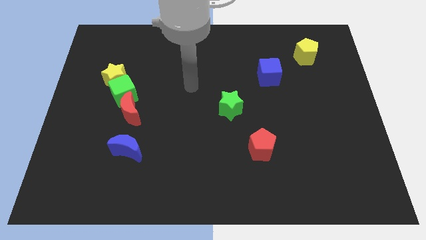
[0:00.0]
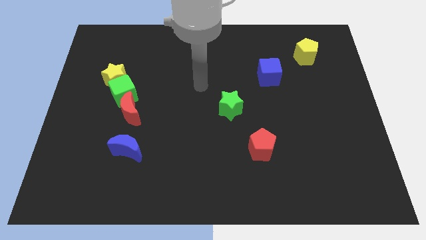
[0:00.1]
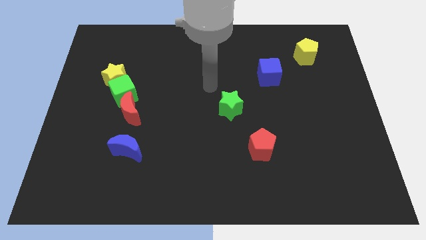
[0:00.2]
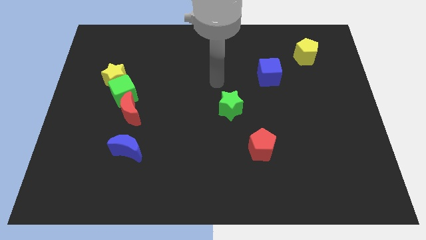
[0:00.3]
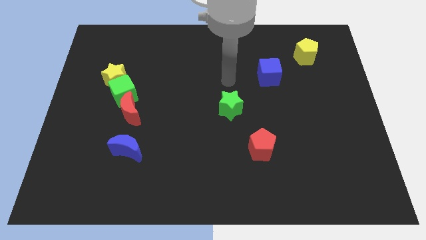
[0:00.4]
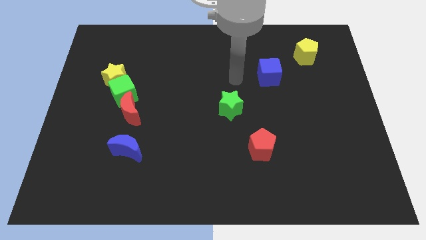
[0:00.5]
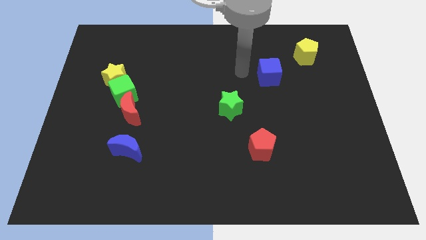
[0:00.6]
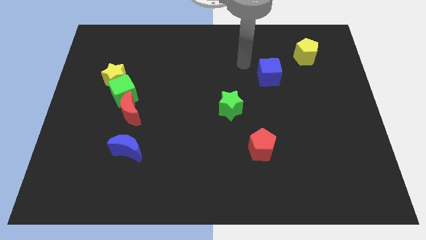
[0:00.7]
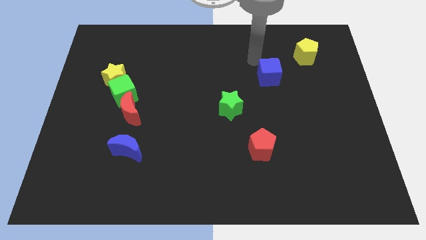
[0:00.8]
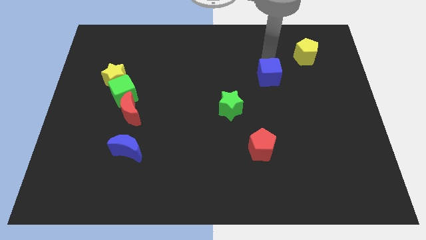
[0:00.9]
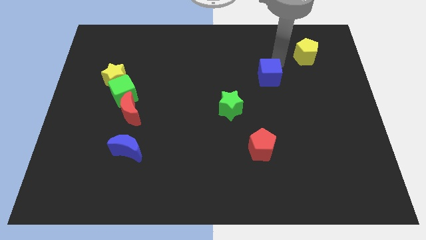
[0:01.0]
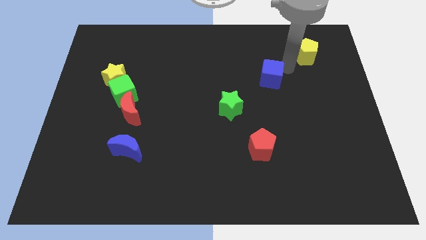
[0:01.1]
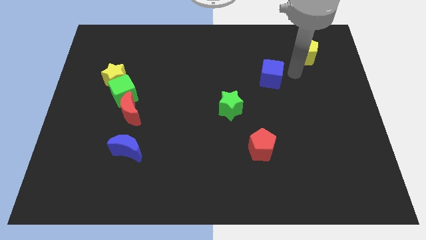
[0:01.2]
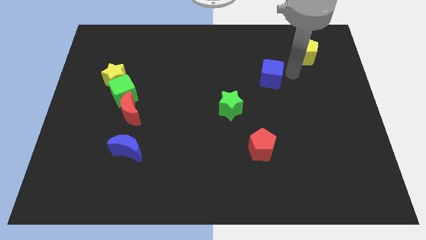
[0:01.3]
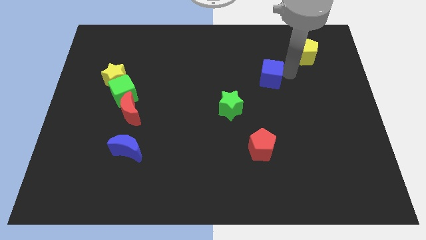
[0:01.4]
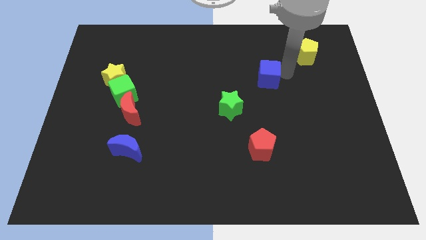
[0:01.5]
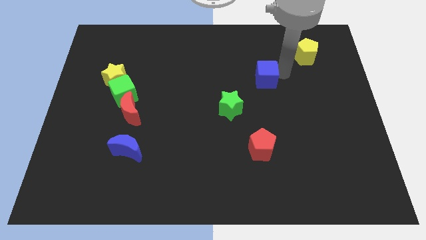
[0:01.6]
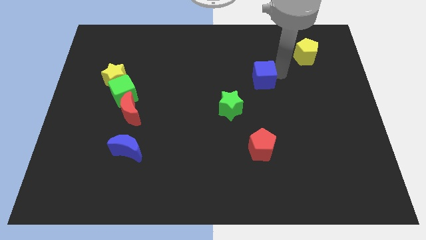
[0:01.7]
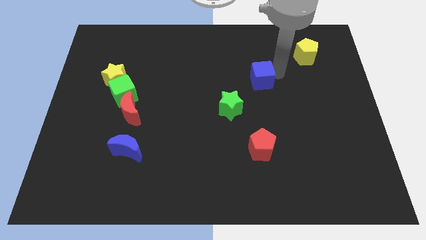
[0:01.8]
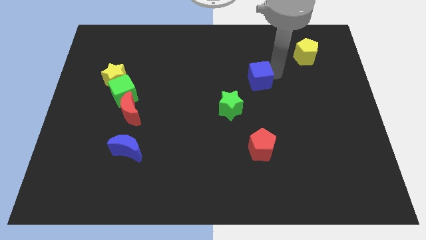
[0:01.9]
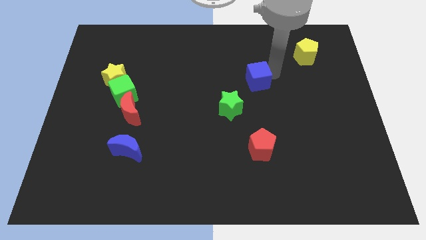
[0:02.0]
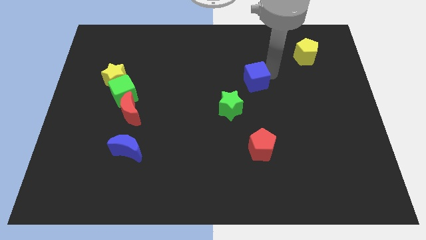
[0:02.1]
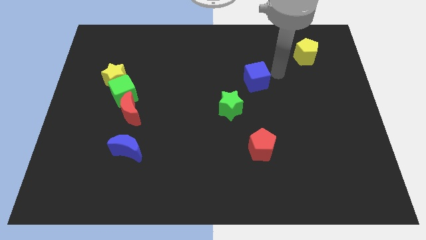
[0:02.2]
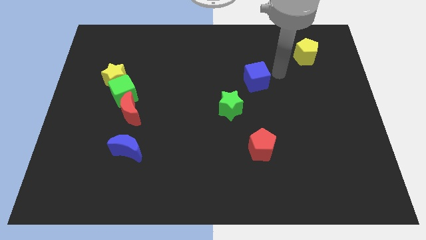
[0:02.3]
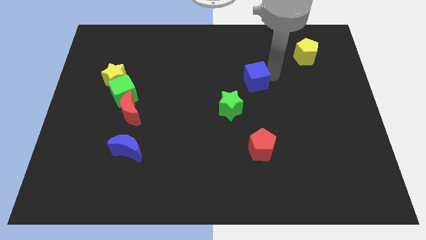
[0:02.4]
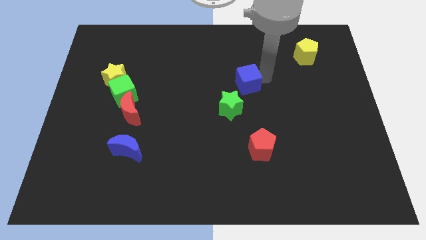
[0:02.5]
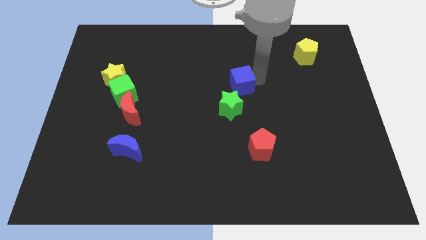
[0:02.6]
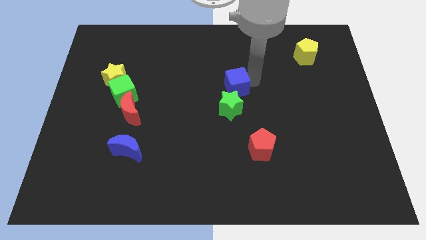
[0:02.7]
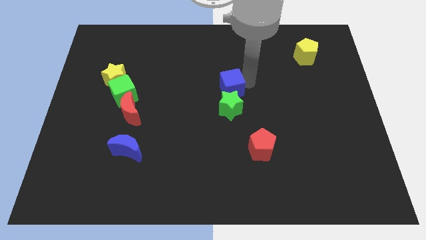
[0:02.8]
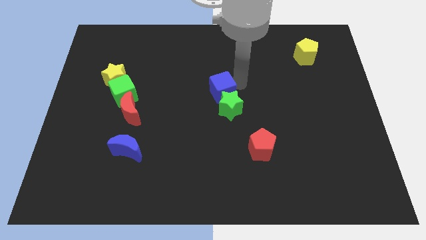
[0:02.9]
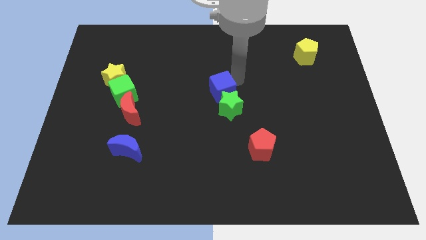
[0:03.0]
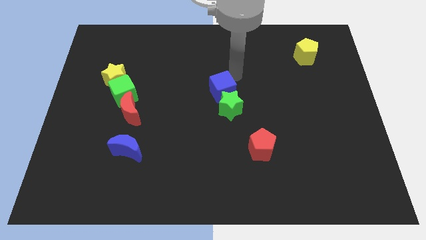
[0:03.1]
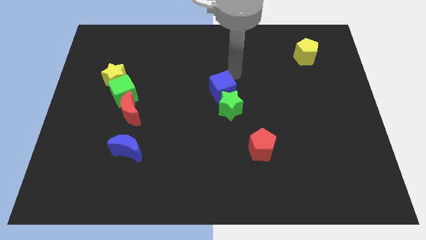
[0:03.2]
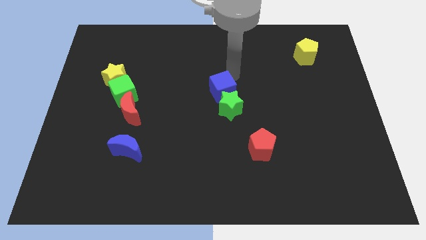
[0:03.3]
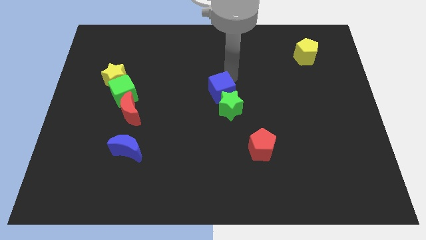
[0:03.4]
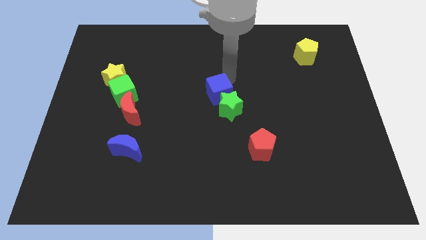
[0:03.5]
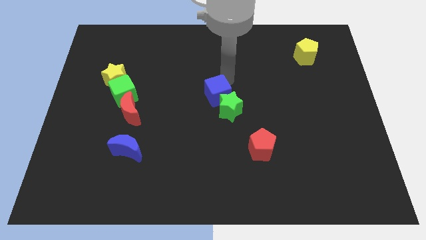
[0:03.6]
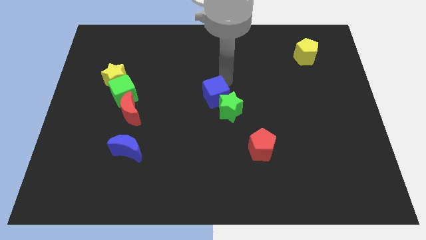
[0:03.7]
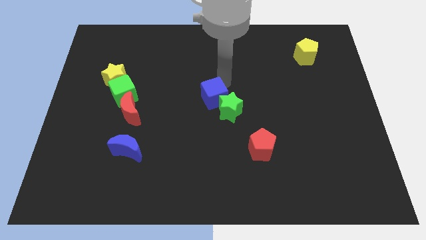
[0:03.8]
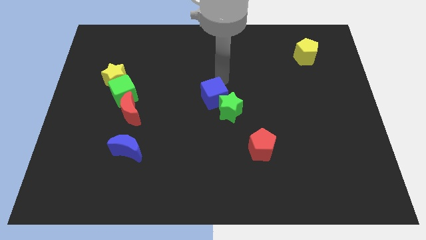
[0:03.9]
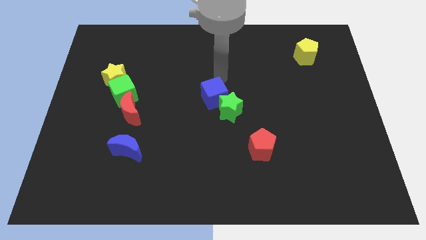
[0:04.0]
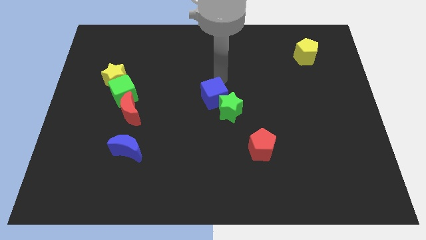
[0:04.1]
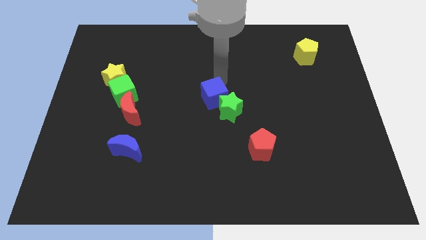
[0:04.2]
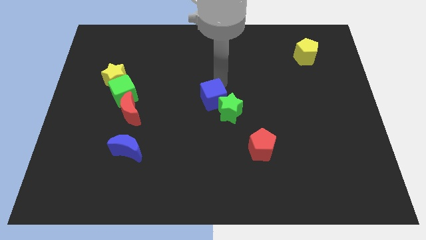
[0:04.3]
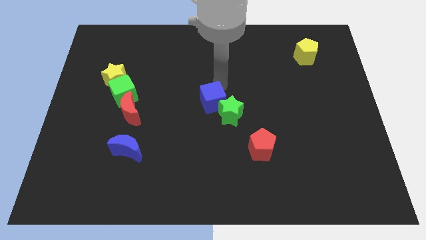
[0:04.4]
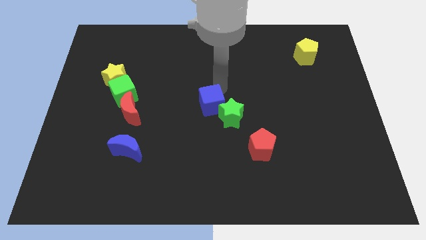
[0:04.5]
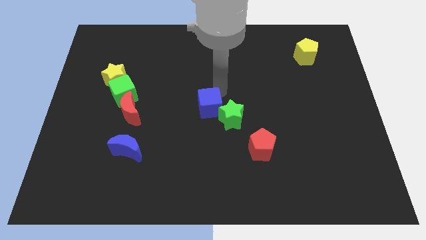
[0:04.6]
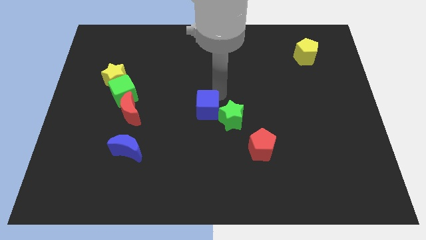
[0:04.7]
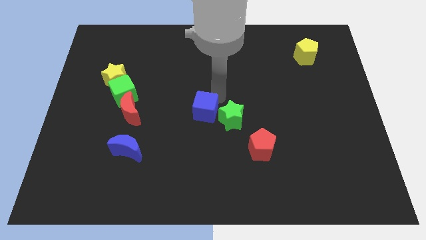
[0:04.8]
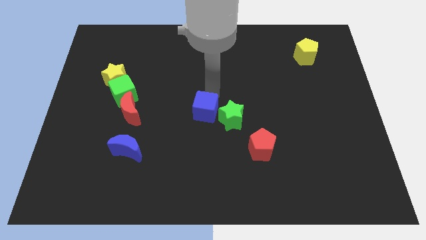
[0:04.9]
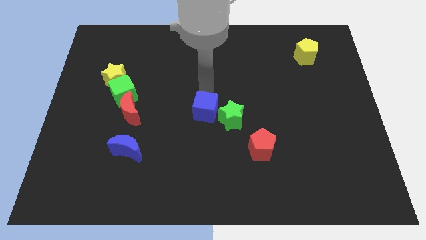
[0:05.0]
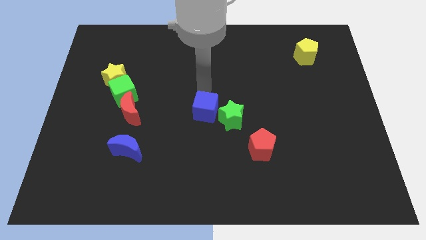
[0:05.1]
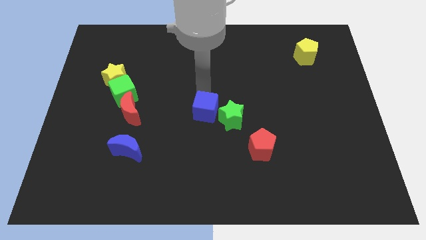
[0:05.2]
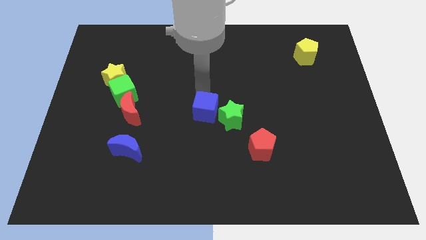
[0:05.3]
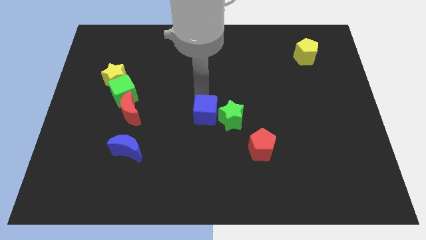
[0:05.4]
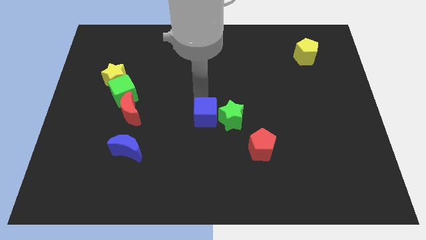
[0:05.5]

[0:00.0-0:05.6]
slide the blue cube to the bottom left of the green star
